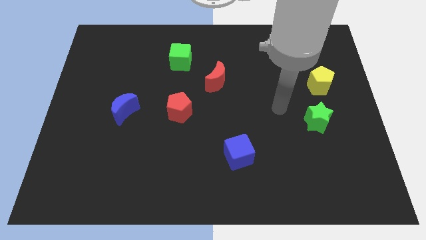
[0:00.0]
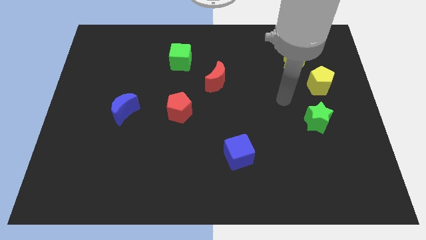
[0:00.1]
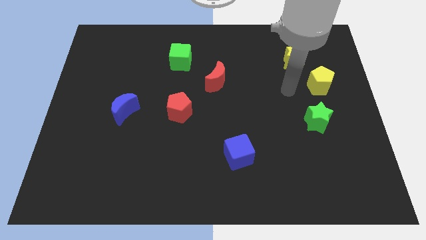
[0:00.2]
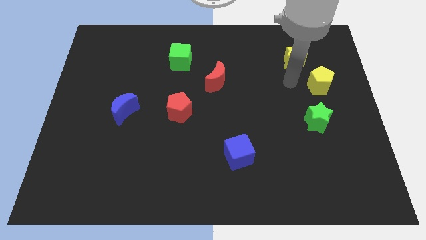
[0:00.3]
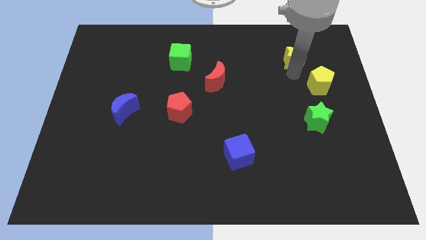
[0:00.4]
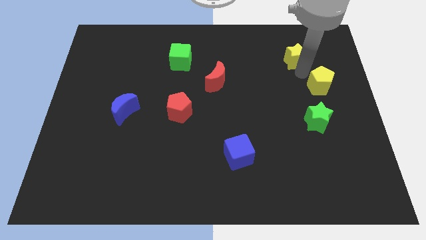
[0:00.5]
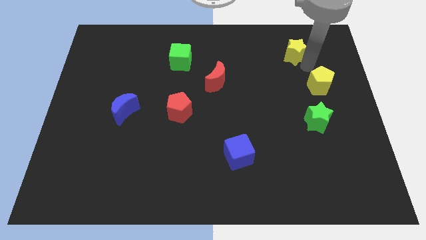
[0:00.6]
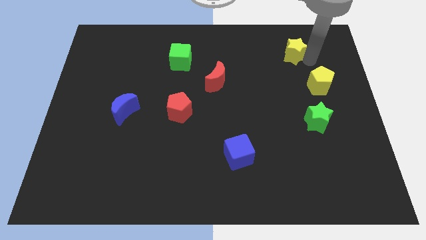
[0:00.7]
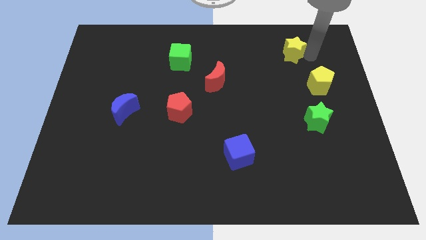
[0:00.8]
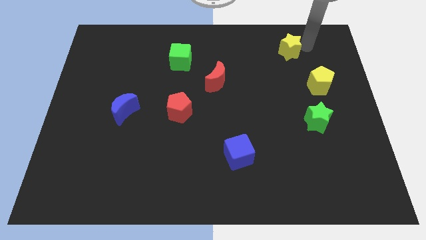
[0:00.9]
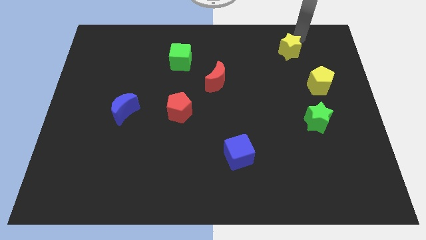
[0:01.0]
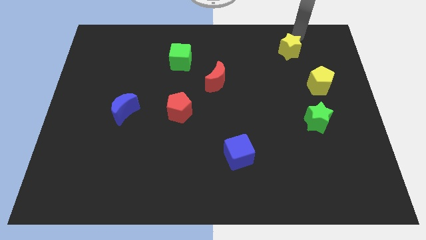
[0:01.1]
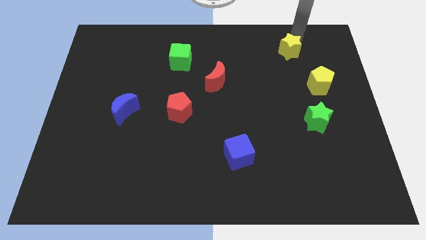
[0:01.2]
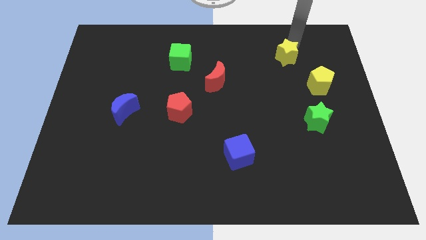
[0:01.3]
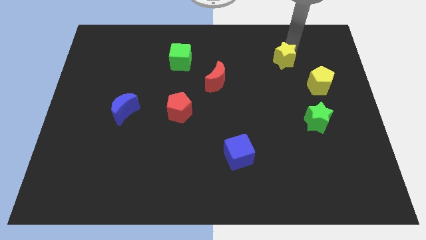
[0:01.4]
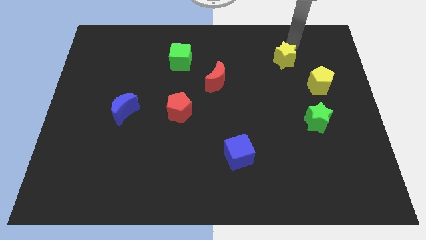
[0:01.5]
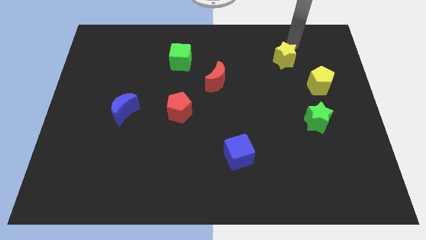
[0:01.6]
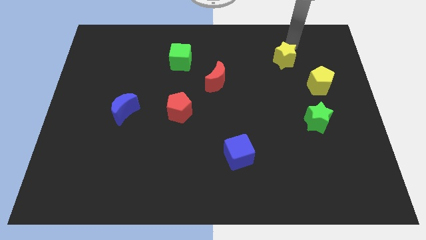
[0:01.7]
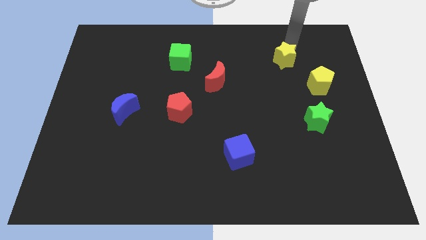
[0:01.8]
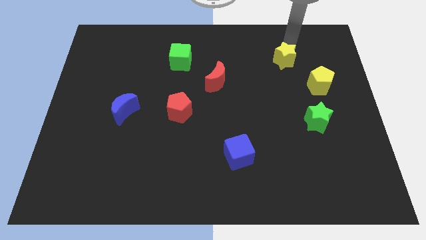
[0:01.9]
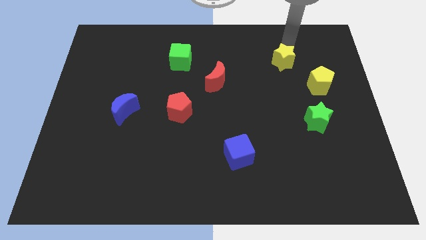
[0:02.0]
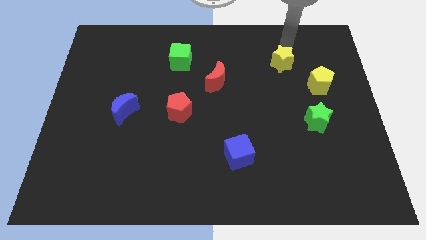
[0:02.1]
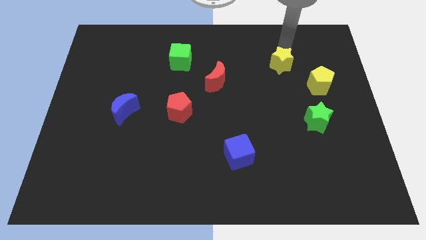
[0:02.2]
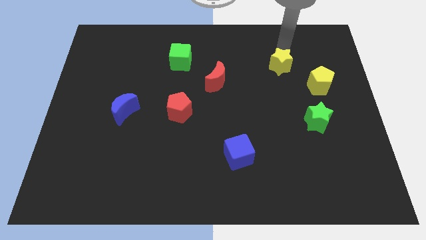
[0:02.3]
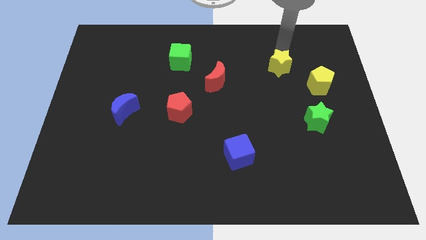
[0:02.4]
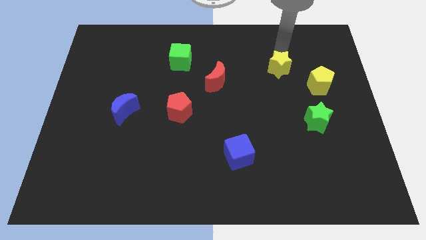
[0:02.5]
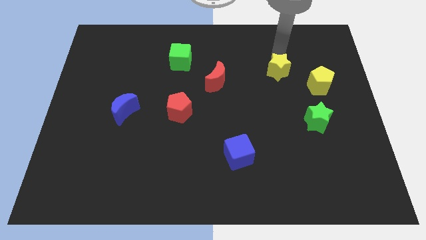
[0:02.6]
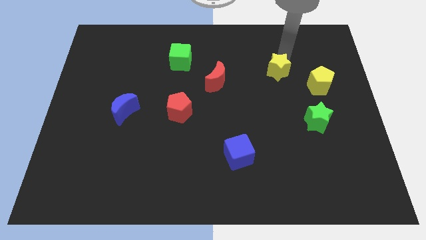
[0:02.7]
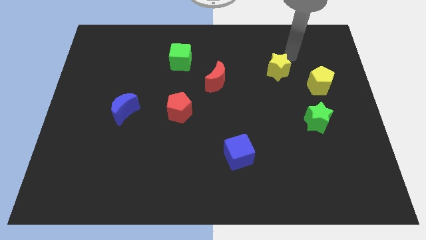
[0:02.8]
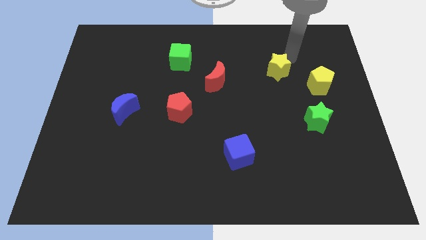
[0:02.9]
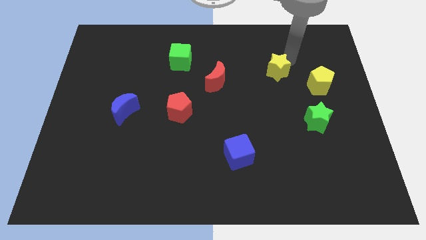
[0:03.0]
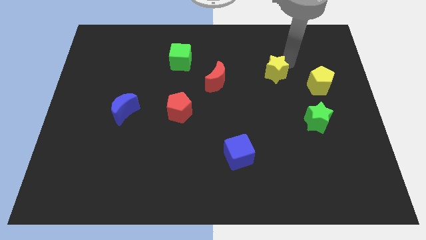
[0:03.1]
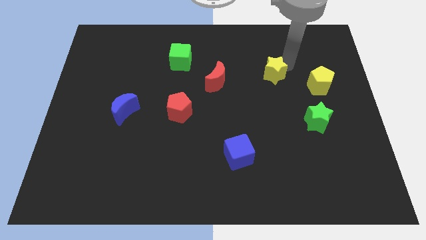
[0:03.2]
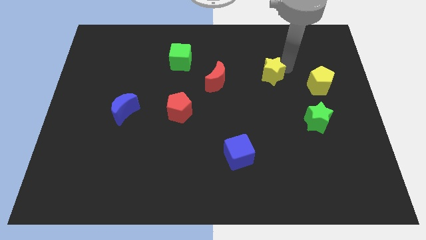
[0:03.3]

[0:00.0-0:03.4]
push the yellow star somewhat diagonally down and left

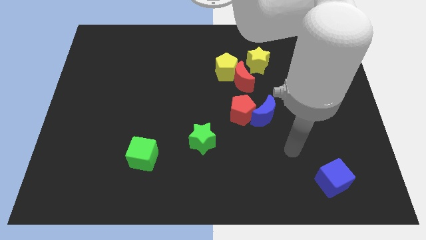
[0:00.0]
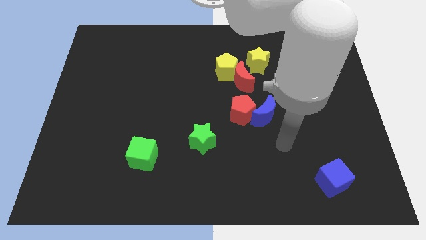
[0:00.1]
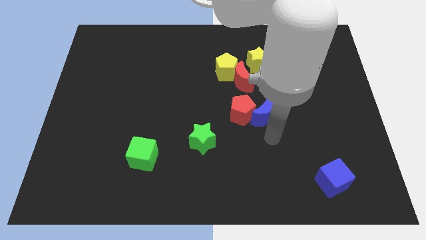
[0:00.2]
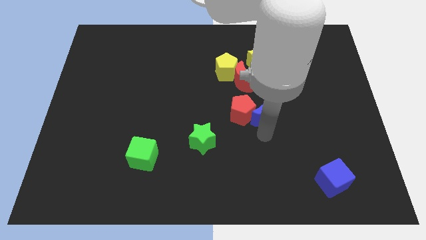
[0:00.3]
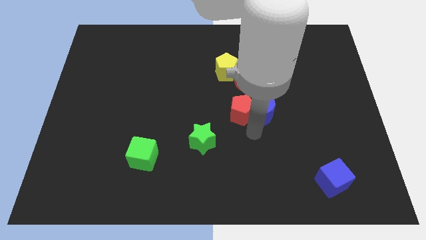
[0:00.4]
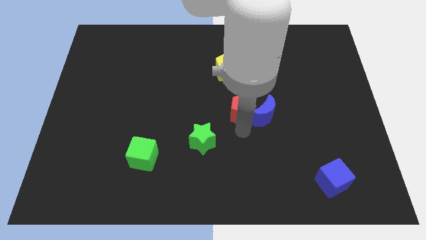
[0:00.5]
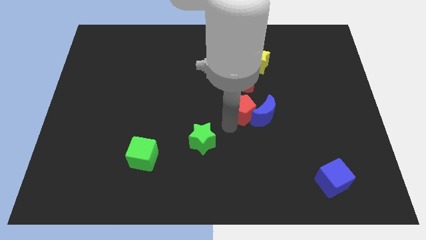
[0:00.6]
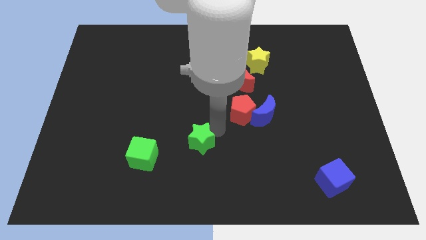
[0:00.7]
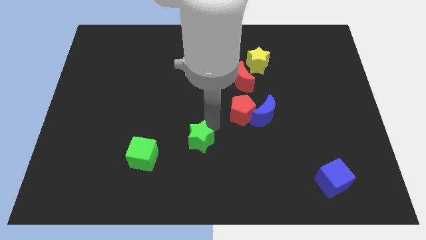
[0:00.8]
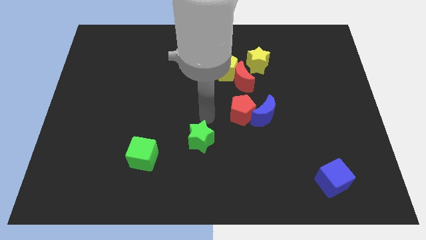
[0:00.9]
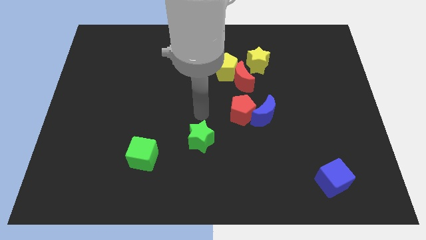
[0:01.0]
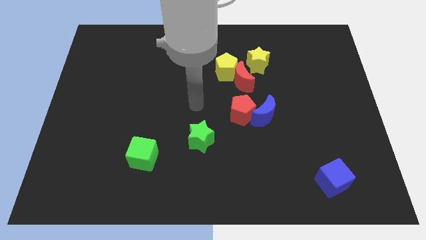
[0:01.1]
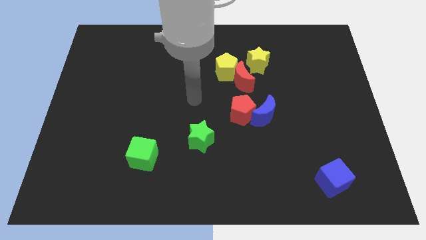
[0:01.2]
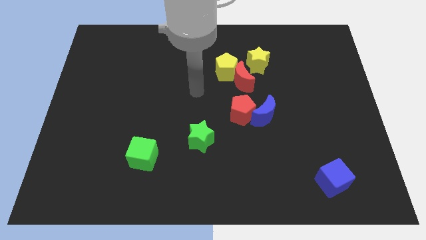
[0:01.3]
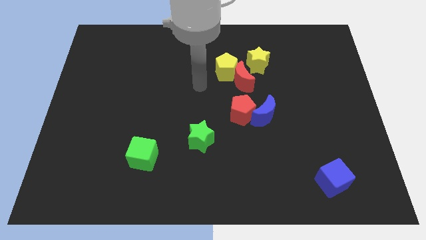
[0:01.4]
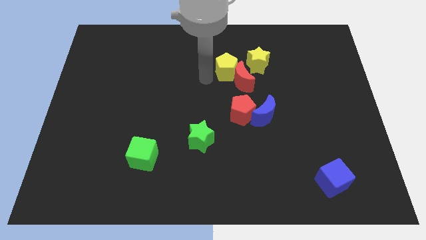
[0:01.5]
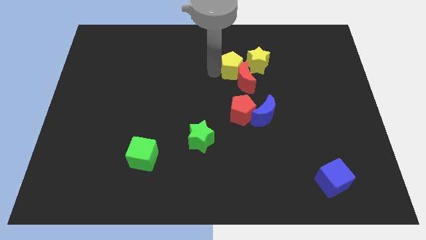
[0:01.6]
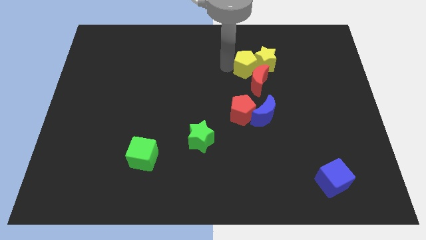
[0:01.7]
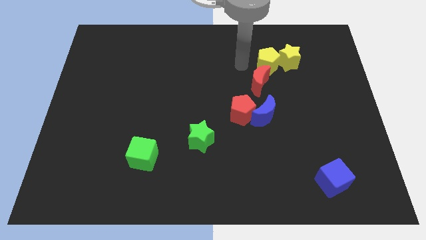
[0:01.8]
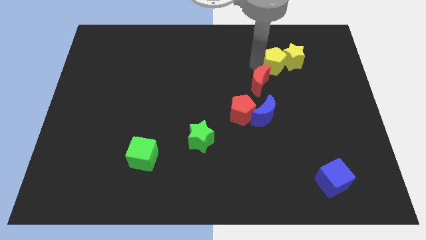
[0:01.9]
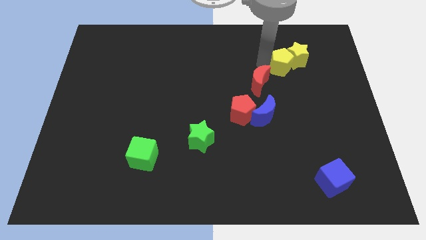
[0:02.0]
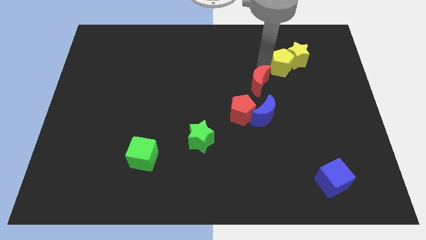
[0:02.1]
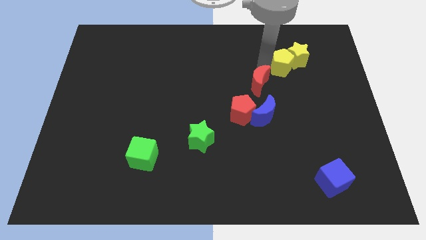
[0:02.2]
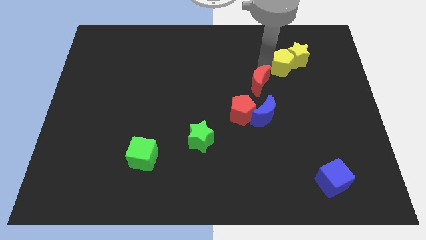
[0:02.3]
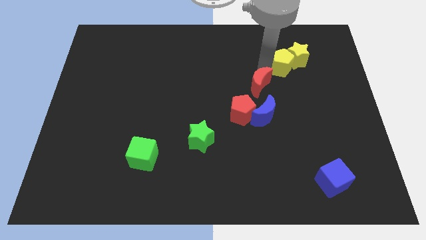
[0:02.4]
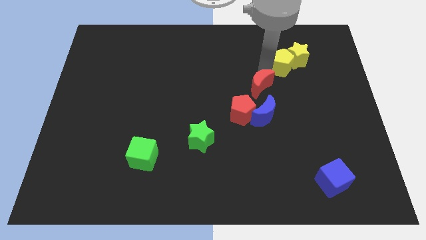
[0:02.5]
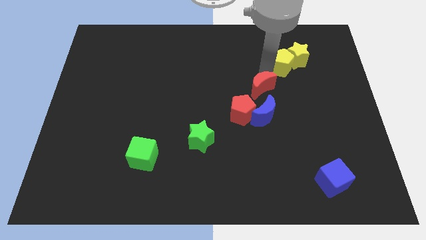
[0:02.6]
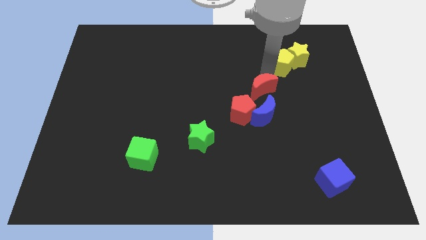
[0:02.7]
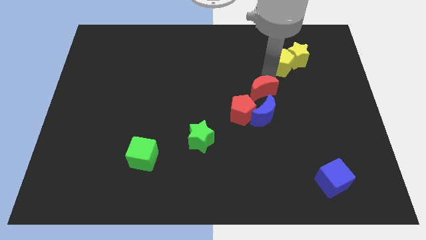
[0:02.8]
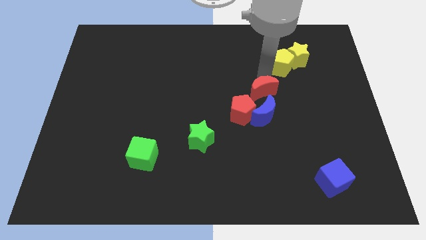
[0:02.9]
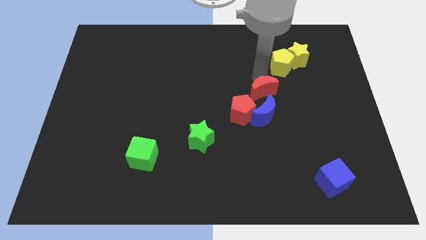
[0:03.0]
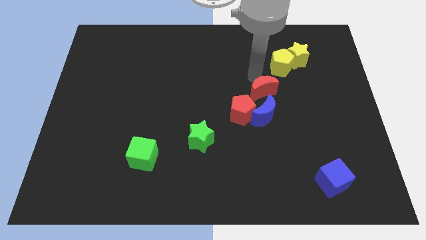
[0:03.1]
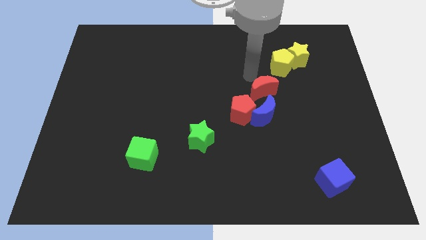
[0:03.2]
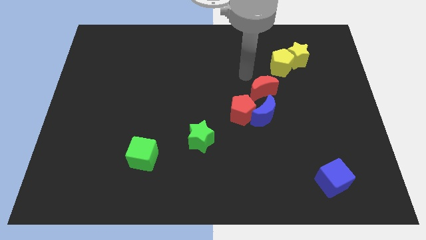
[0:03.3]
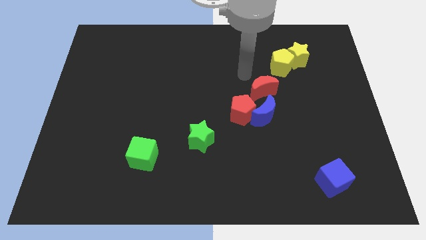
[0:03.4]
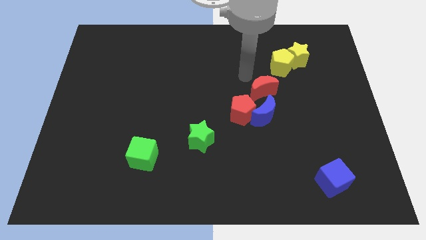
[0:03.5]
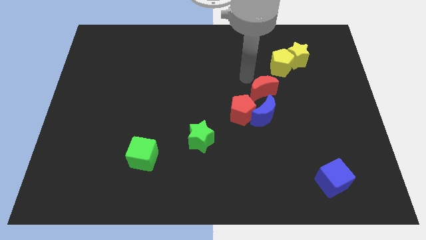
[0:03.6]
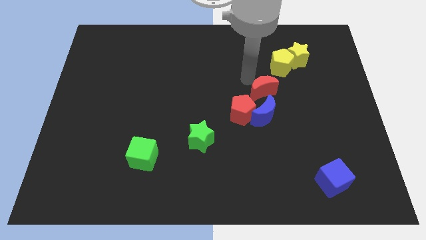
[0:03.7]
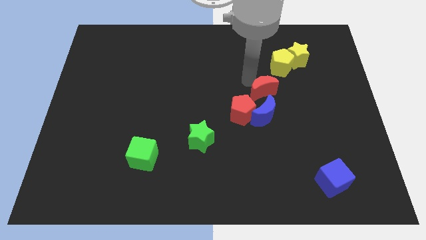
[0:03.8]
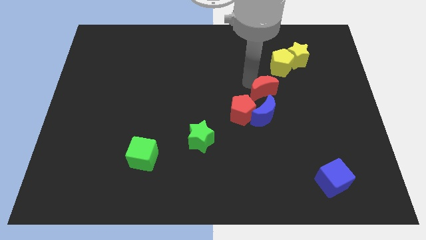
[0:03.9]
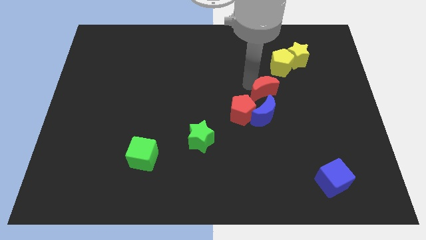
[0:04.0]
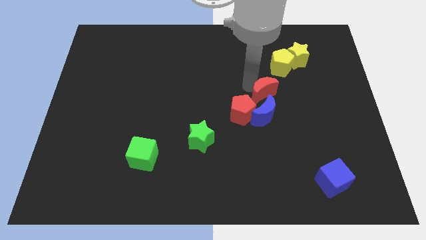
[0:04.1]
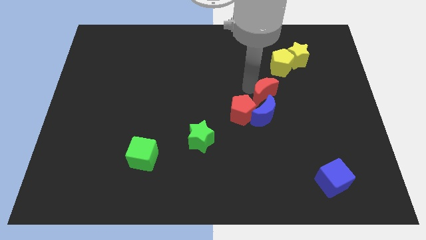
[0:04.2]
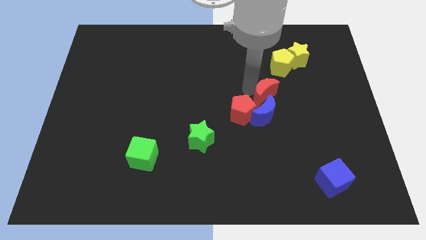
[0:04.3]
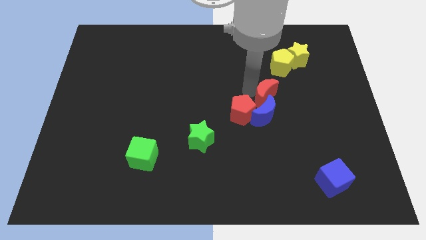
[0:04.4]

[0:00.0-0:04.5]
slightly move the red moon downwards and then right

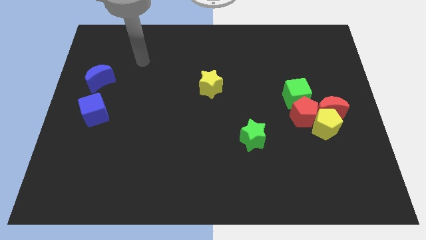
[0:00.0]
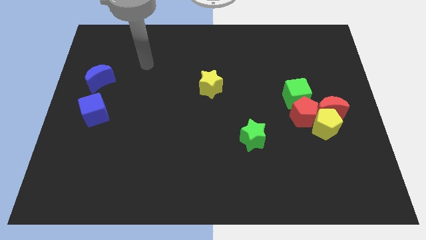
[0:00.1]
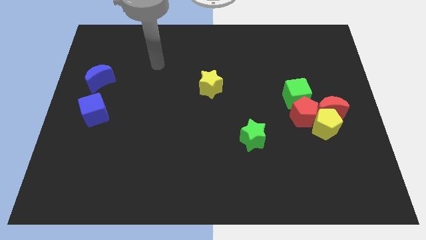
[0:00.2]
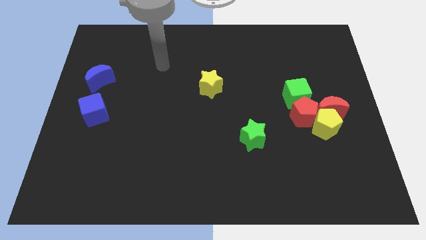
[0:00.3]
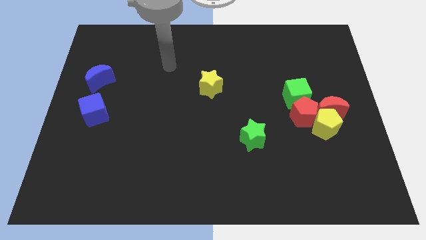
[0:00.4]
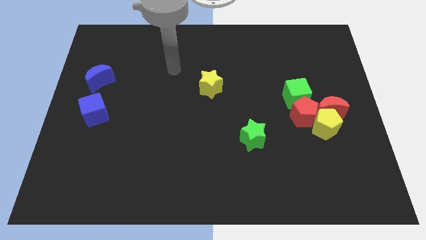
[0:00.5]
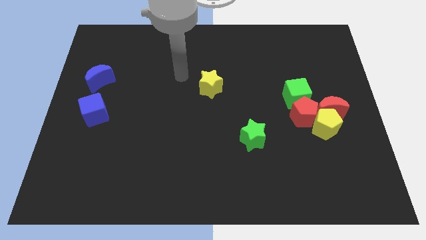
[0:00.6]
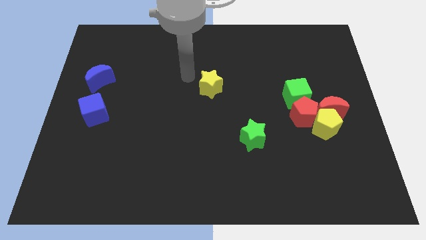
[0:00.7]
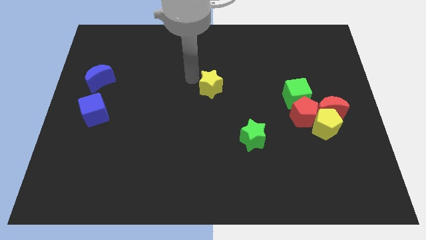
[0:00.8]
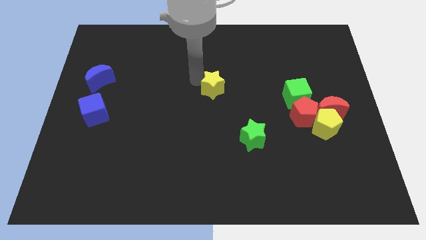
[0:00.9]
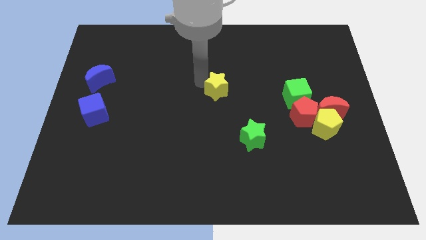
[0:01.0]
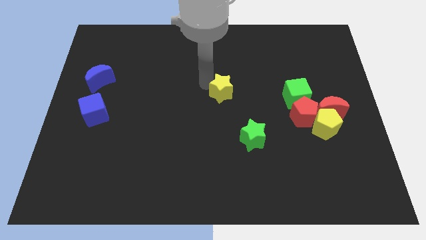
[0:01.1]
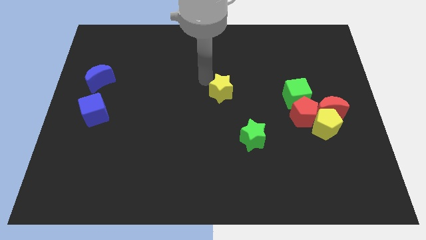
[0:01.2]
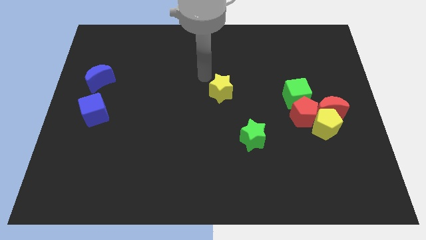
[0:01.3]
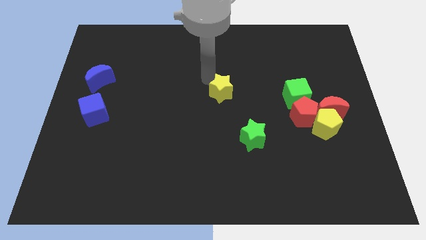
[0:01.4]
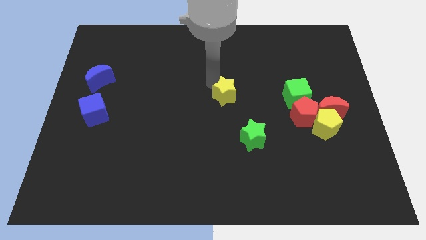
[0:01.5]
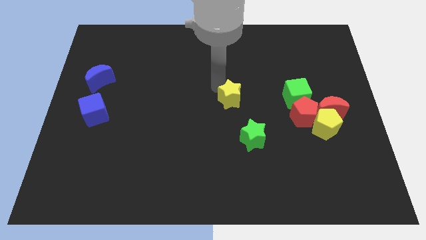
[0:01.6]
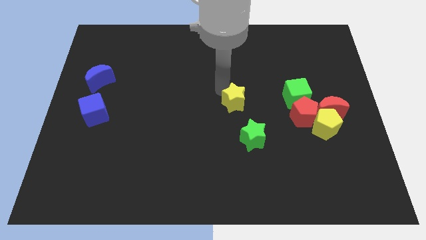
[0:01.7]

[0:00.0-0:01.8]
slide the yellow star down and then to the right slightly
